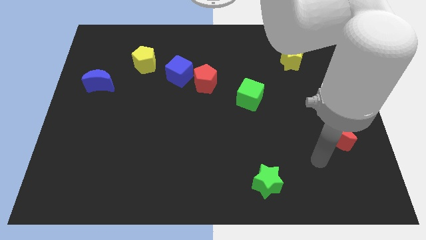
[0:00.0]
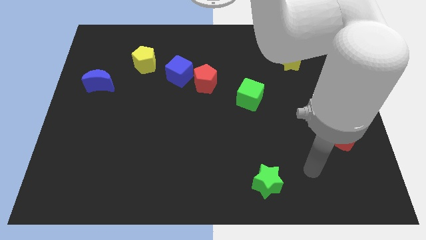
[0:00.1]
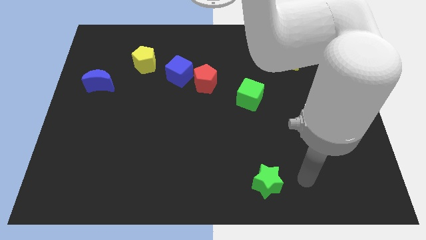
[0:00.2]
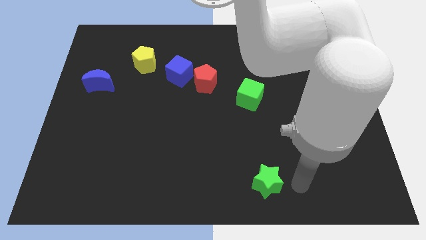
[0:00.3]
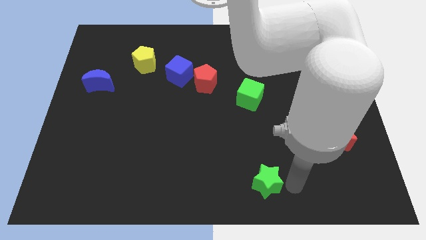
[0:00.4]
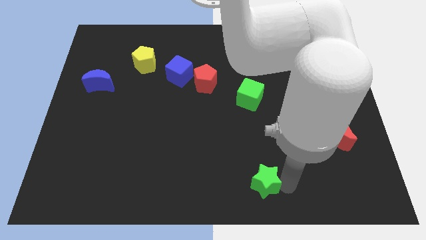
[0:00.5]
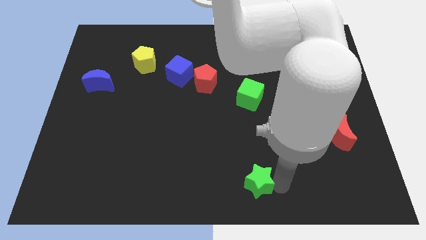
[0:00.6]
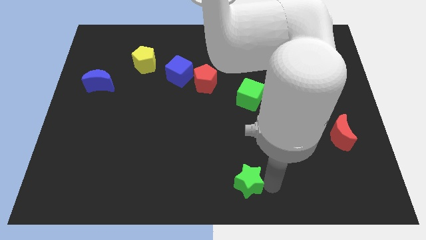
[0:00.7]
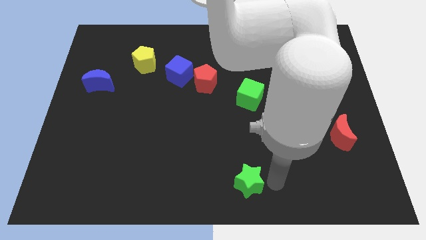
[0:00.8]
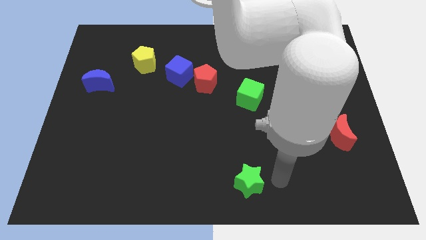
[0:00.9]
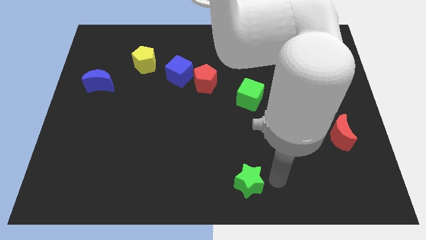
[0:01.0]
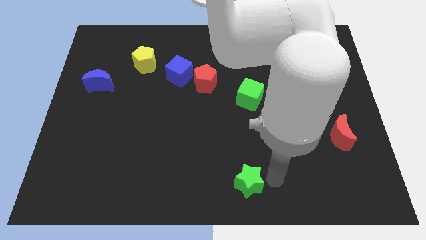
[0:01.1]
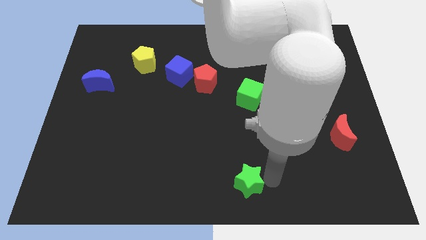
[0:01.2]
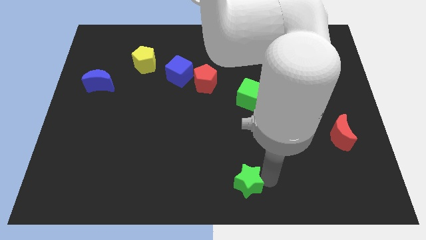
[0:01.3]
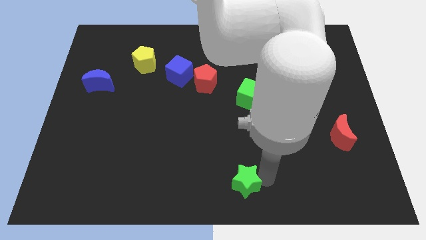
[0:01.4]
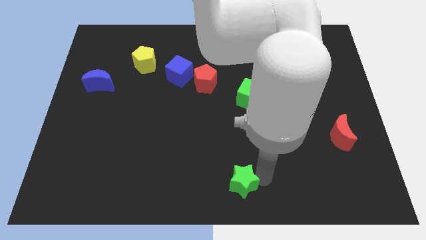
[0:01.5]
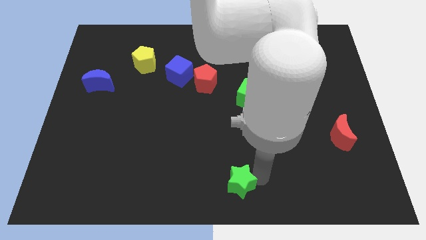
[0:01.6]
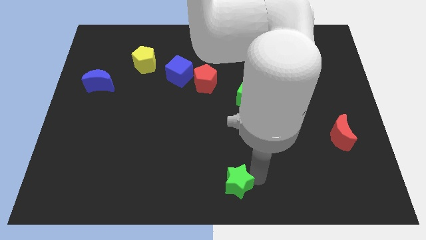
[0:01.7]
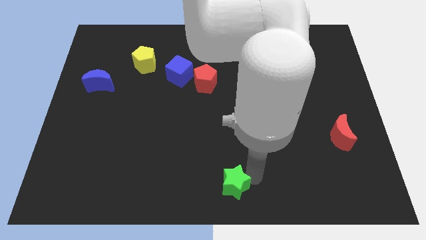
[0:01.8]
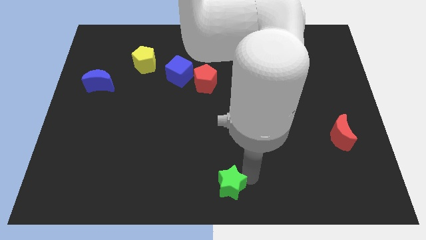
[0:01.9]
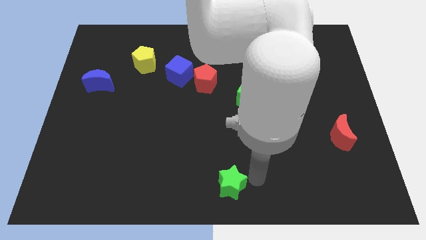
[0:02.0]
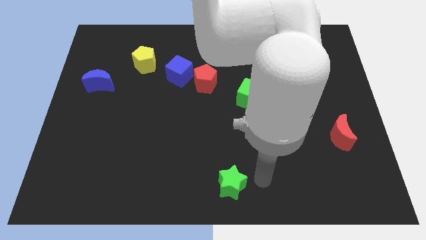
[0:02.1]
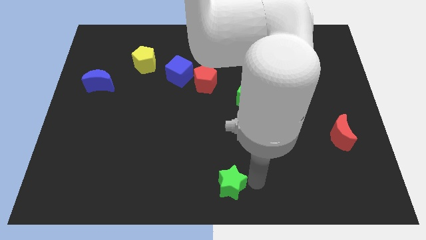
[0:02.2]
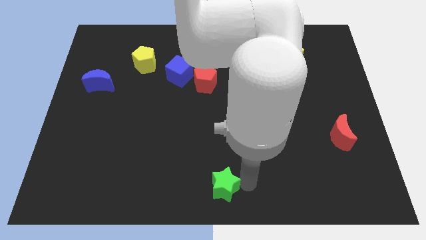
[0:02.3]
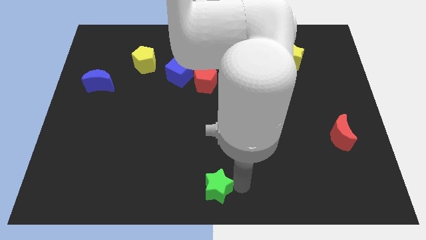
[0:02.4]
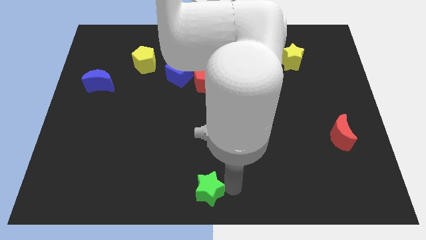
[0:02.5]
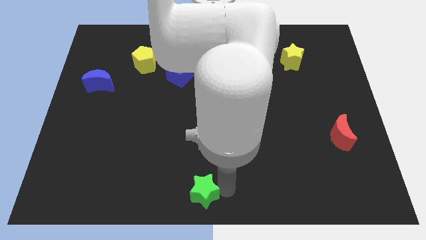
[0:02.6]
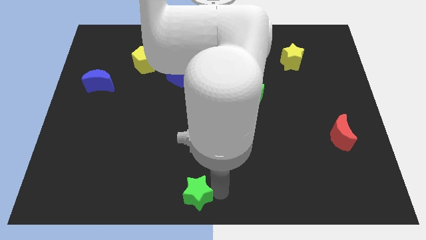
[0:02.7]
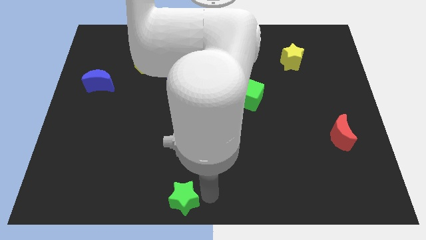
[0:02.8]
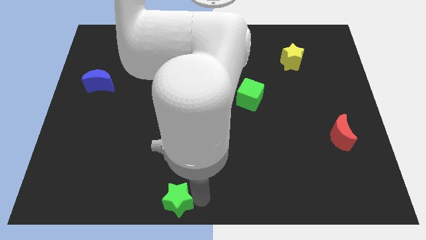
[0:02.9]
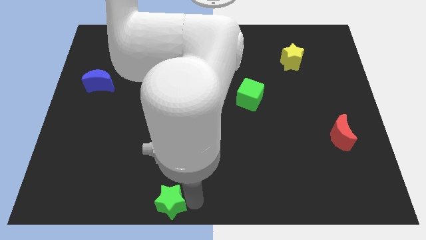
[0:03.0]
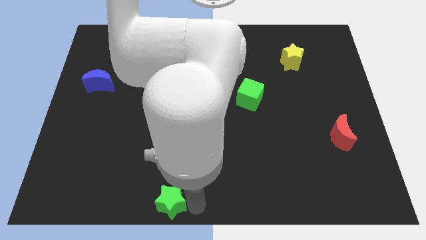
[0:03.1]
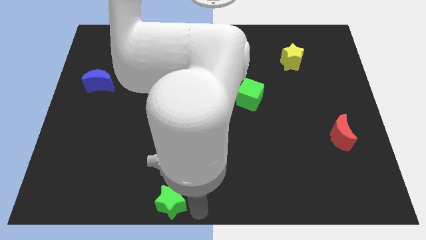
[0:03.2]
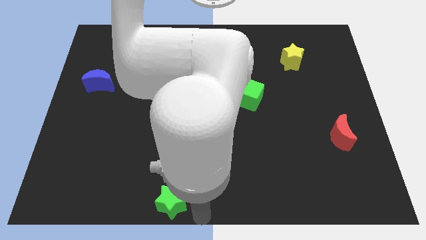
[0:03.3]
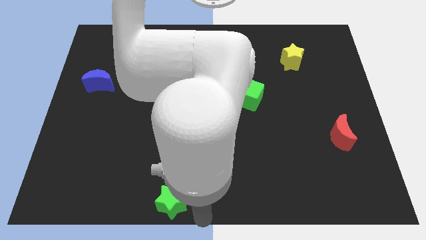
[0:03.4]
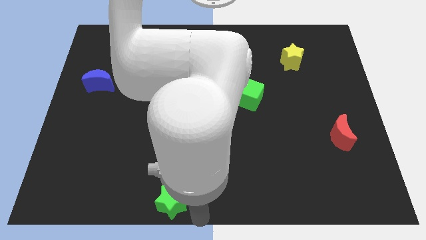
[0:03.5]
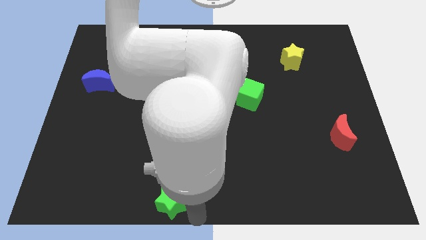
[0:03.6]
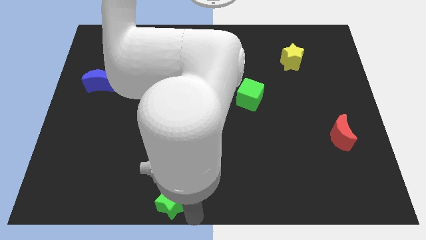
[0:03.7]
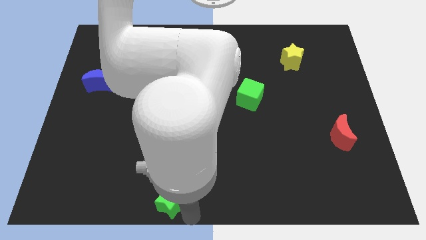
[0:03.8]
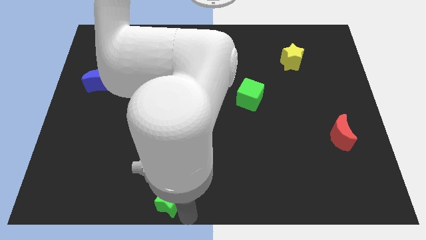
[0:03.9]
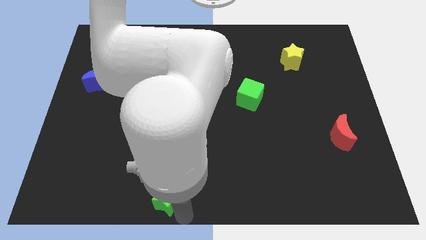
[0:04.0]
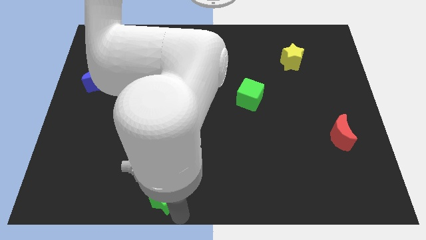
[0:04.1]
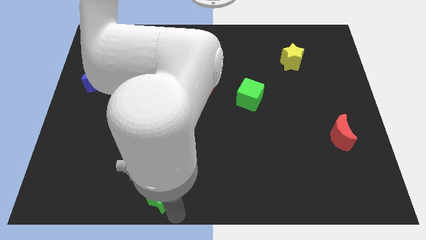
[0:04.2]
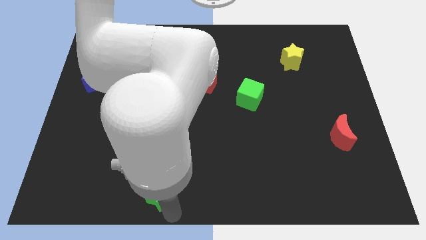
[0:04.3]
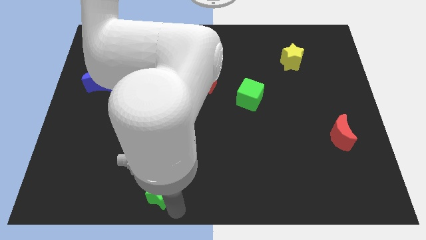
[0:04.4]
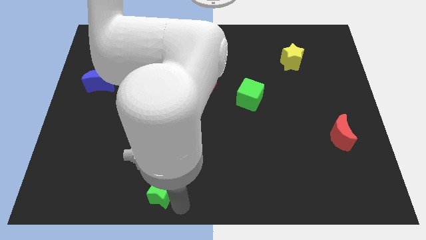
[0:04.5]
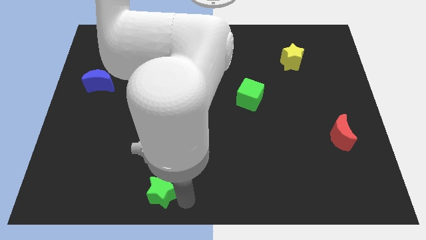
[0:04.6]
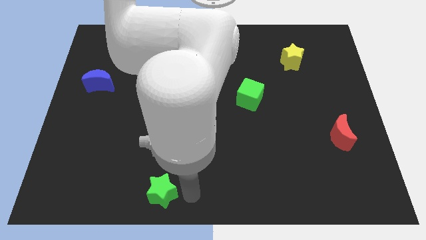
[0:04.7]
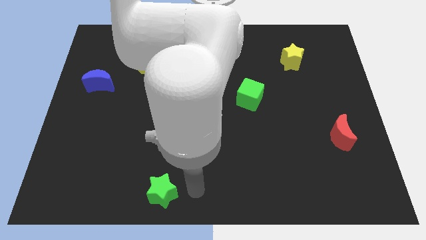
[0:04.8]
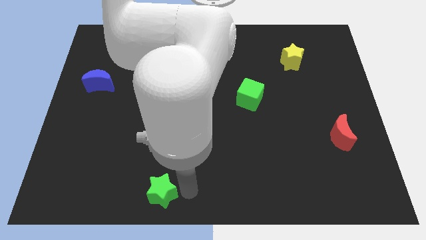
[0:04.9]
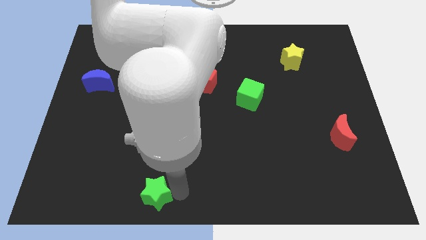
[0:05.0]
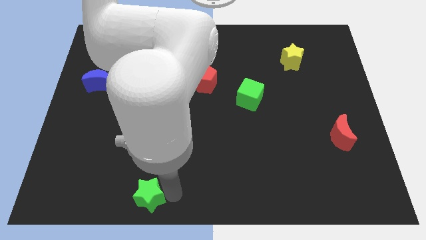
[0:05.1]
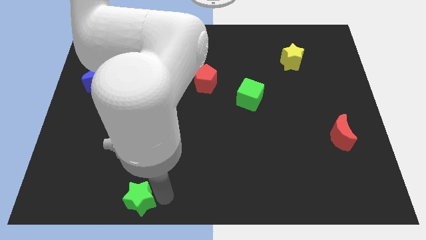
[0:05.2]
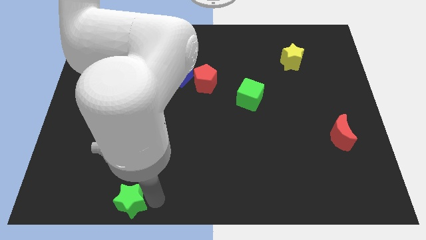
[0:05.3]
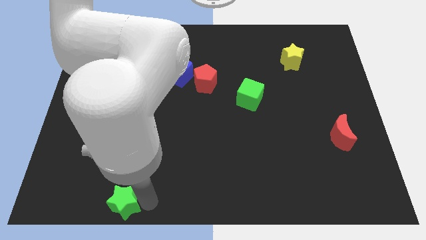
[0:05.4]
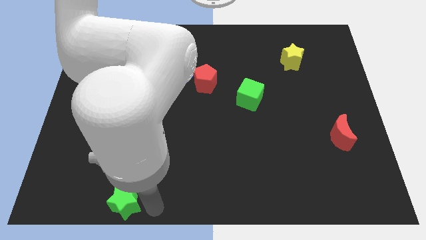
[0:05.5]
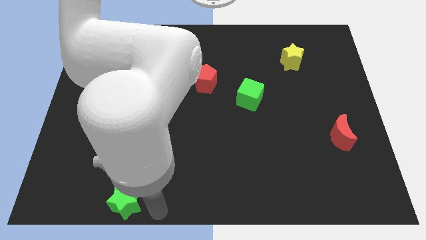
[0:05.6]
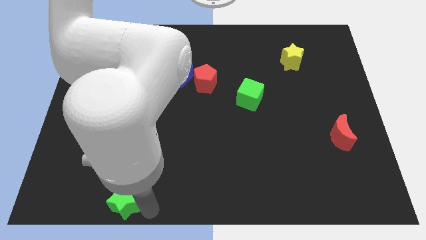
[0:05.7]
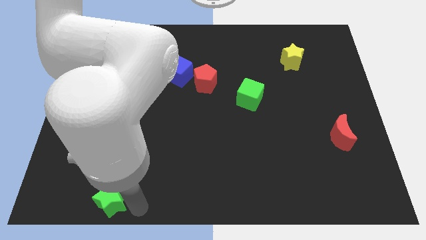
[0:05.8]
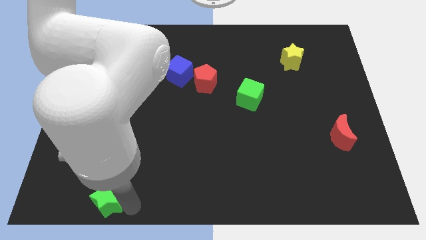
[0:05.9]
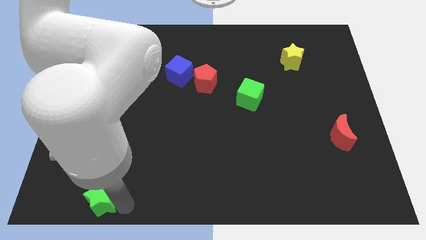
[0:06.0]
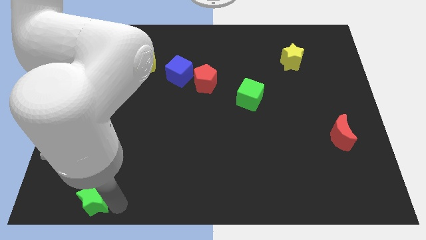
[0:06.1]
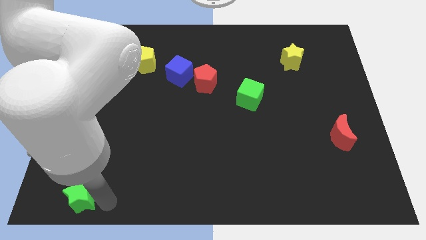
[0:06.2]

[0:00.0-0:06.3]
move the green star to the bottom left of the board
